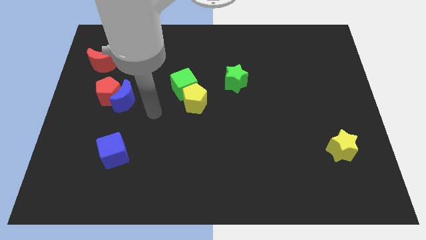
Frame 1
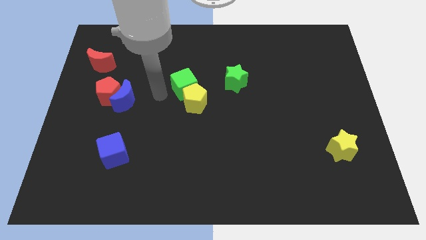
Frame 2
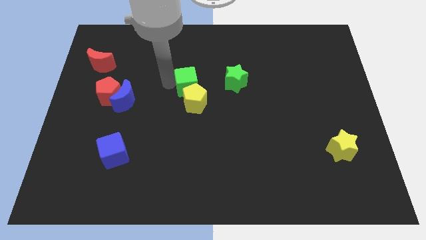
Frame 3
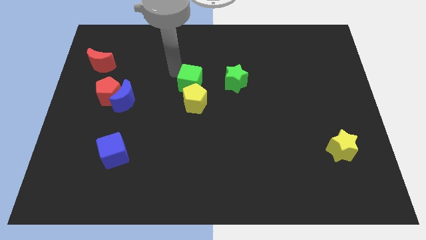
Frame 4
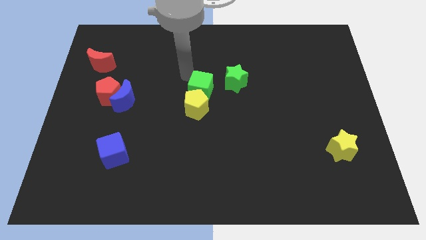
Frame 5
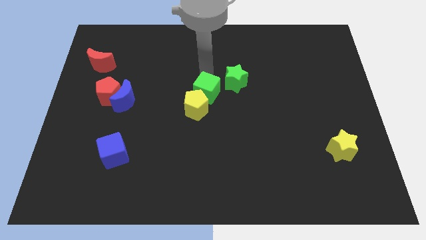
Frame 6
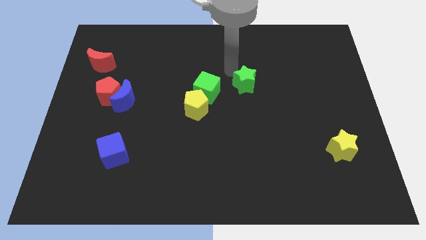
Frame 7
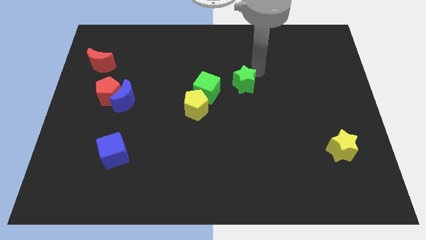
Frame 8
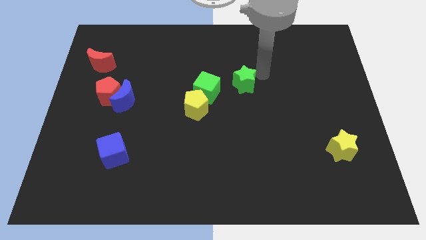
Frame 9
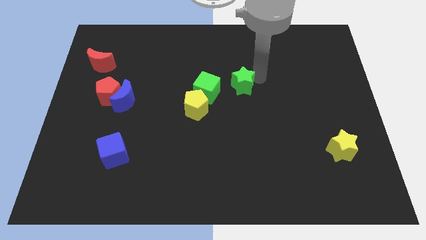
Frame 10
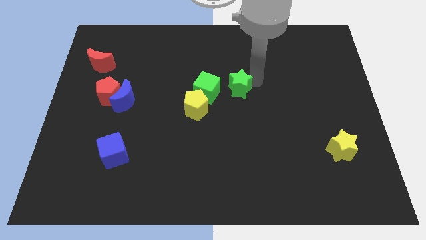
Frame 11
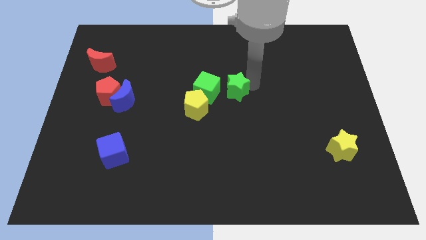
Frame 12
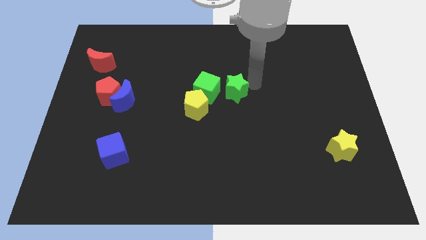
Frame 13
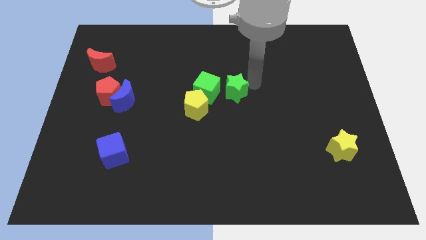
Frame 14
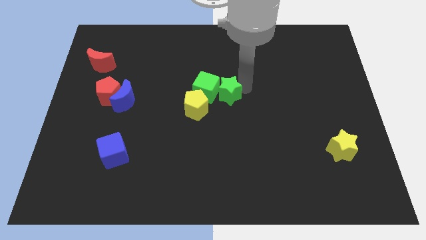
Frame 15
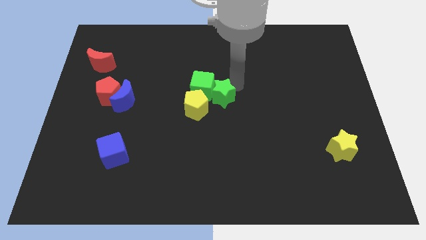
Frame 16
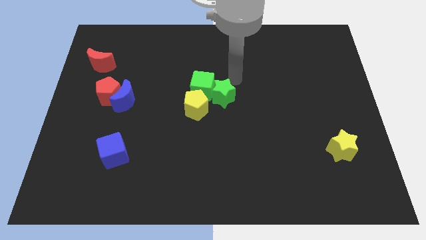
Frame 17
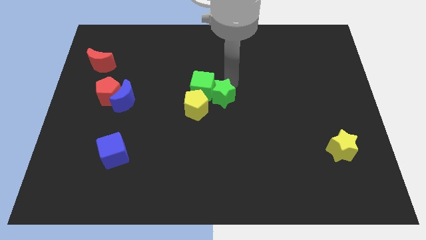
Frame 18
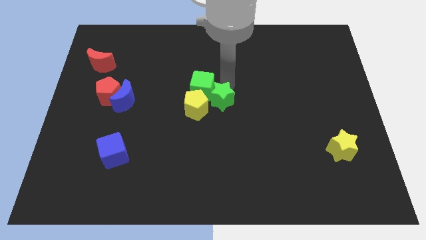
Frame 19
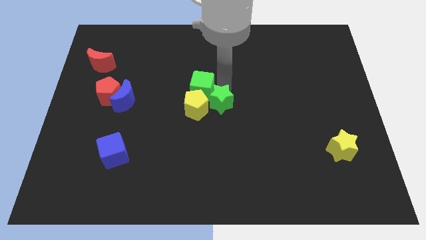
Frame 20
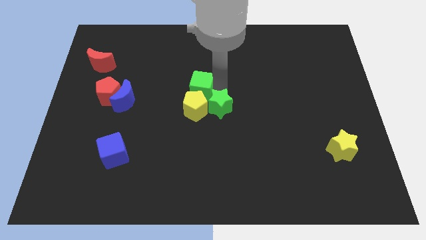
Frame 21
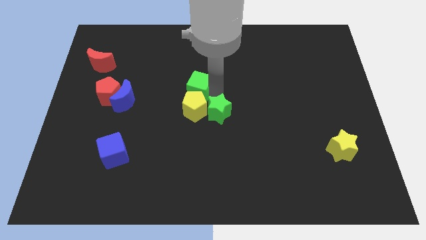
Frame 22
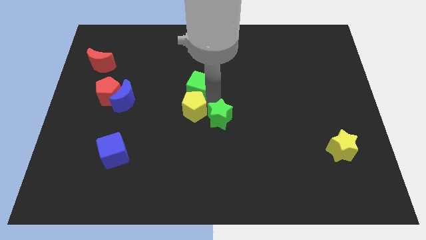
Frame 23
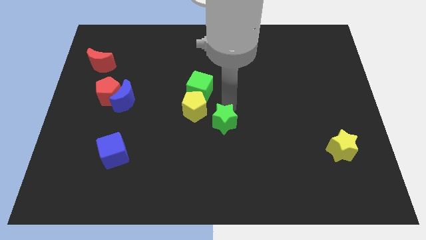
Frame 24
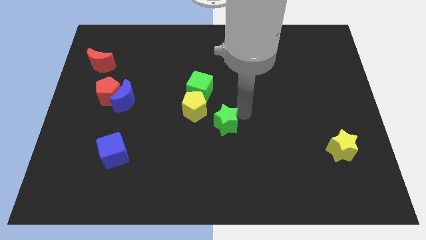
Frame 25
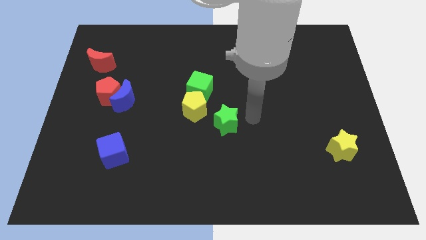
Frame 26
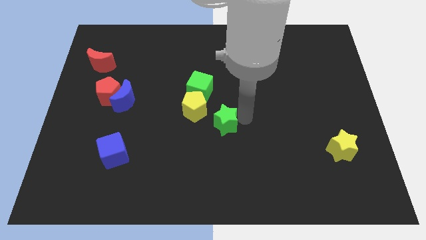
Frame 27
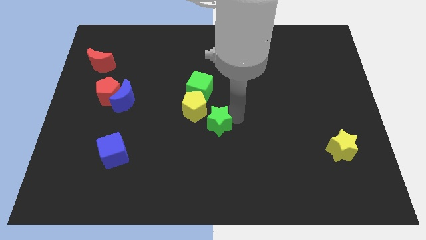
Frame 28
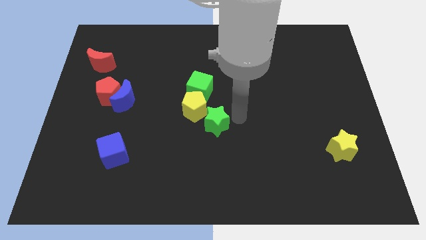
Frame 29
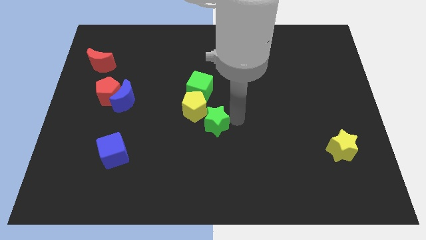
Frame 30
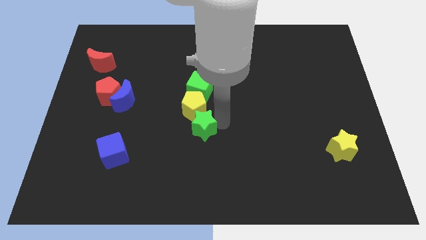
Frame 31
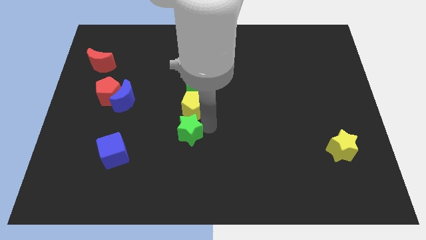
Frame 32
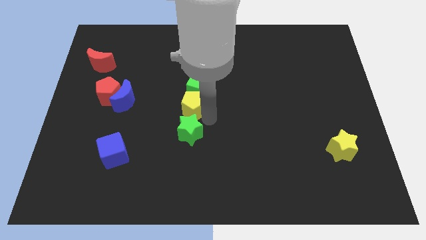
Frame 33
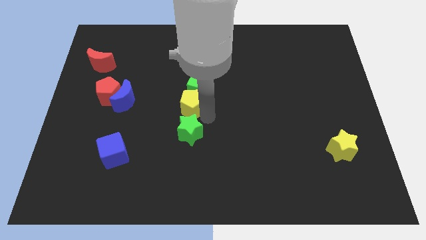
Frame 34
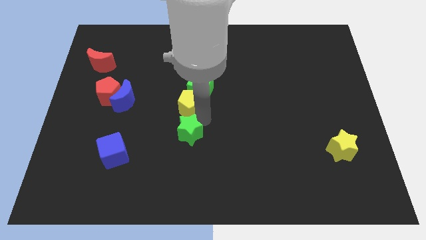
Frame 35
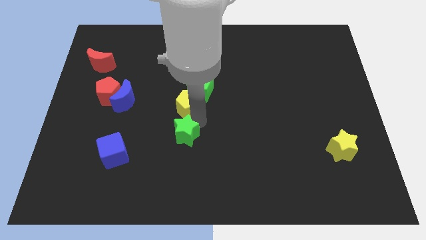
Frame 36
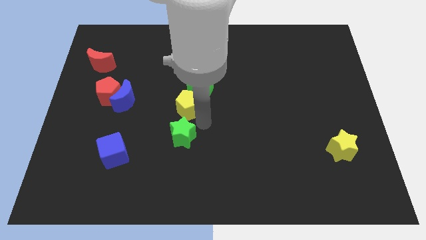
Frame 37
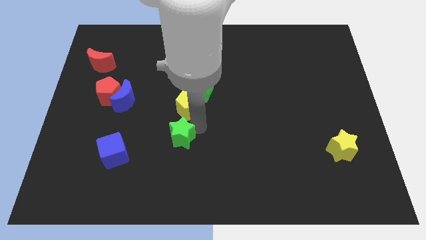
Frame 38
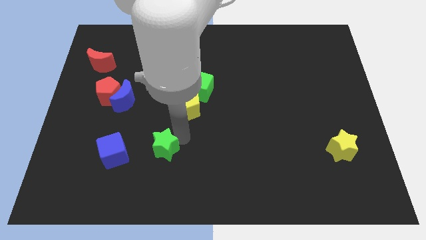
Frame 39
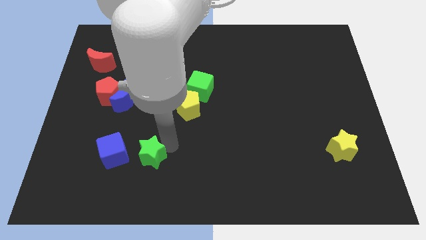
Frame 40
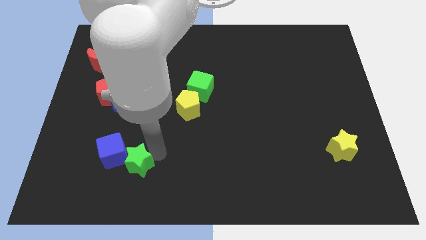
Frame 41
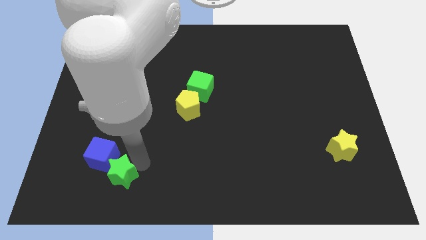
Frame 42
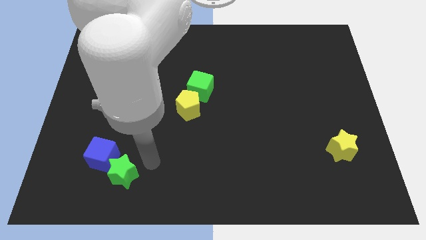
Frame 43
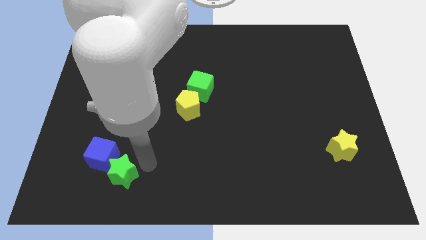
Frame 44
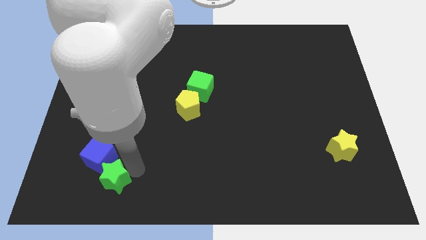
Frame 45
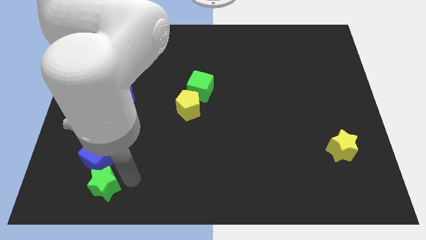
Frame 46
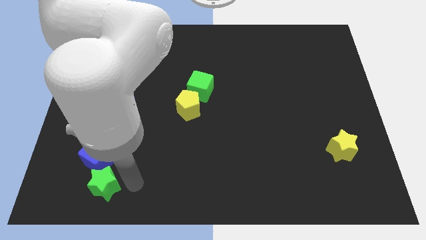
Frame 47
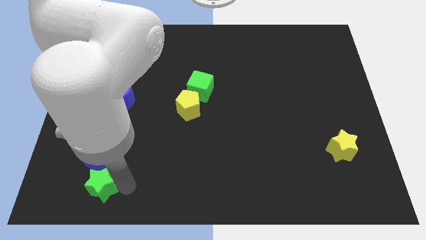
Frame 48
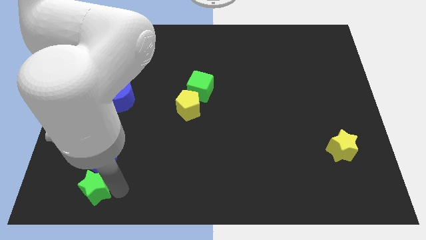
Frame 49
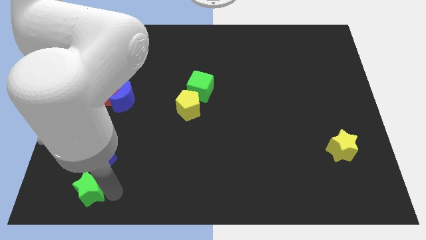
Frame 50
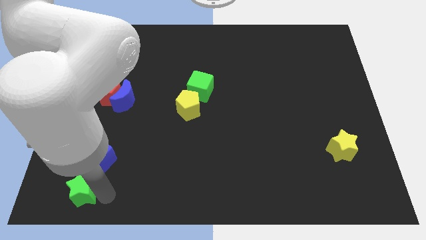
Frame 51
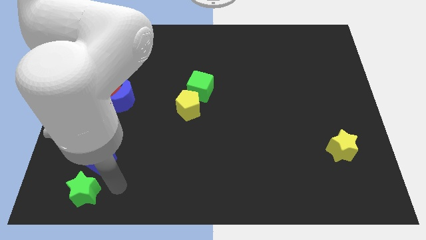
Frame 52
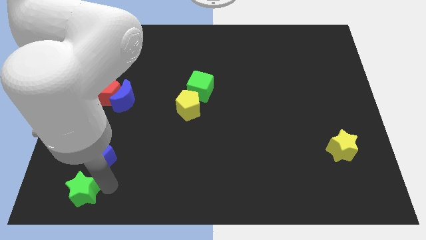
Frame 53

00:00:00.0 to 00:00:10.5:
slide the green star to the bottom left corner

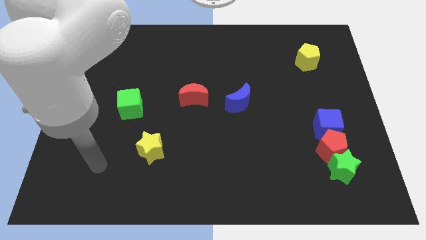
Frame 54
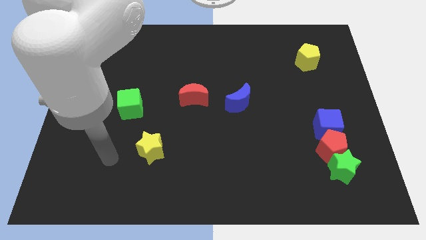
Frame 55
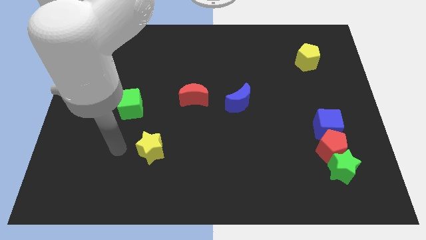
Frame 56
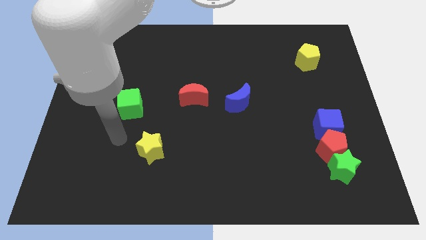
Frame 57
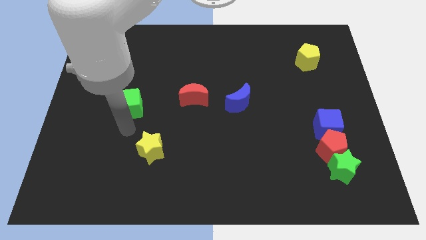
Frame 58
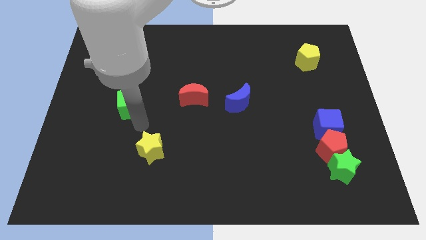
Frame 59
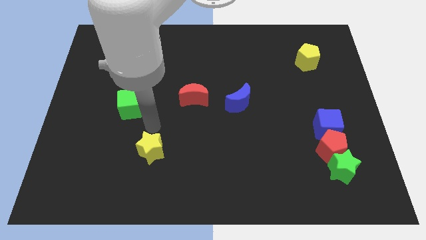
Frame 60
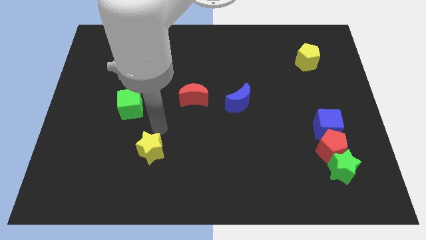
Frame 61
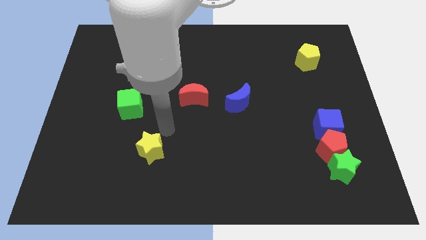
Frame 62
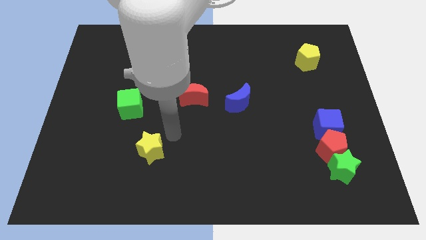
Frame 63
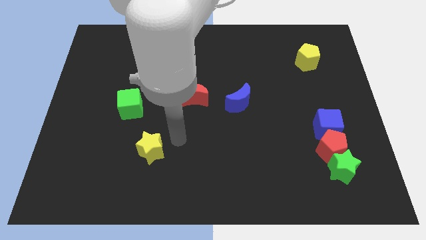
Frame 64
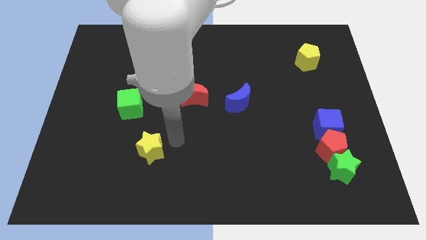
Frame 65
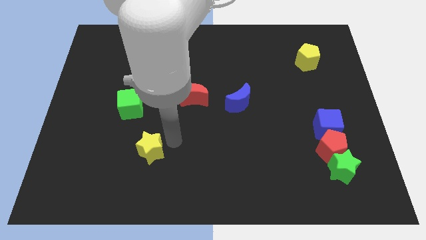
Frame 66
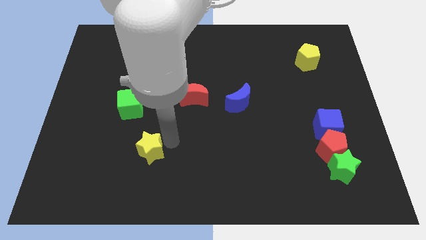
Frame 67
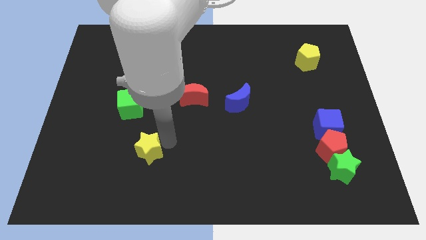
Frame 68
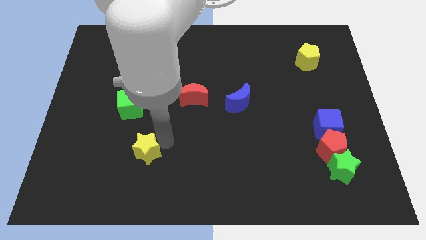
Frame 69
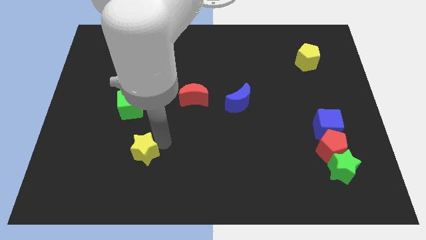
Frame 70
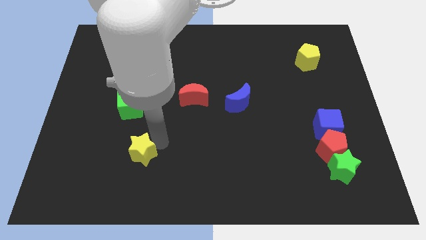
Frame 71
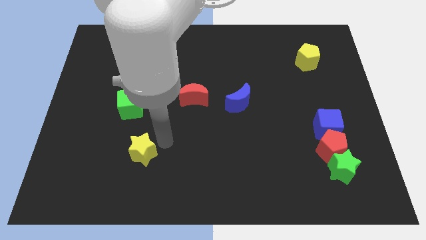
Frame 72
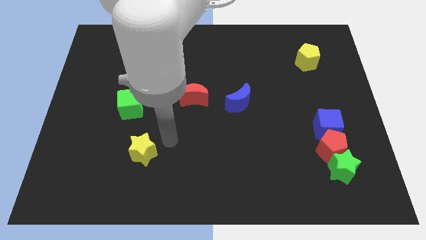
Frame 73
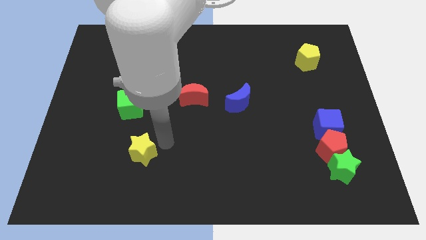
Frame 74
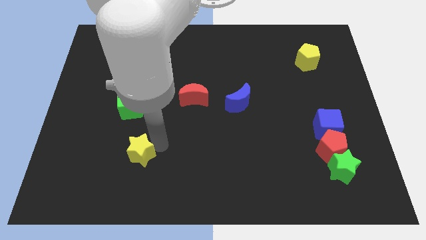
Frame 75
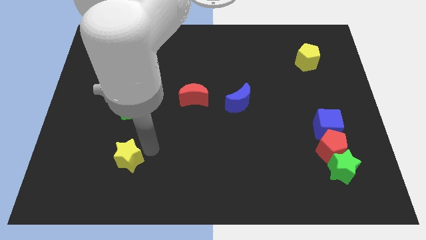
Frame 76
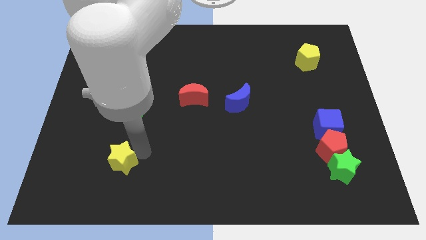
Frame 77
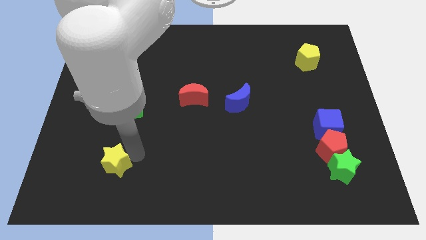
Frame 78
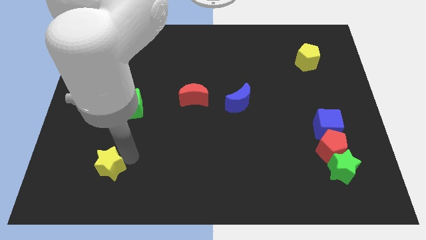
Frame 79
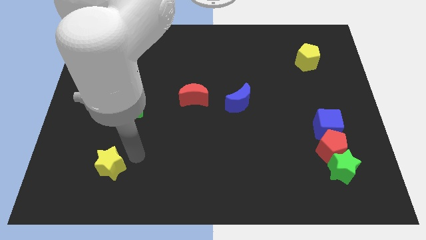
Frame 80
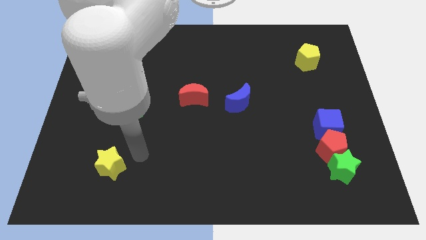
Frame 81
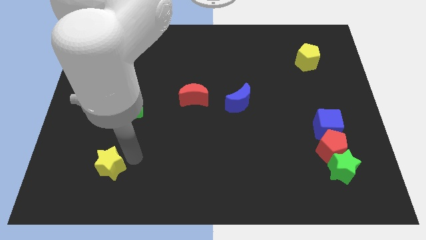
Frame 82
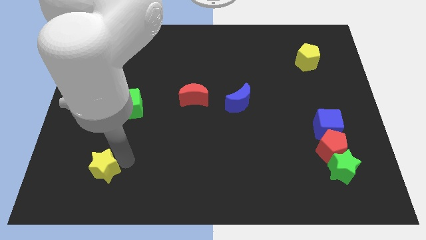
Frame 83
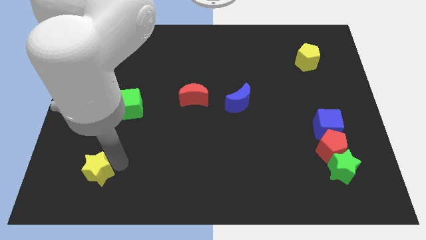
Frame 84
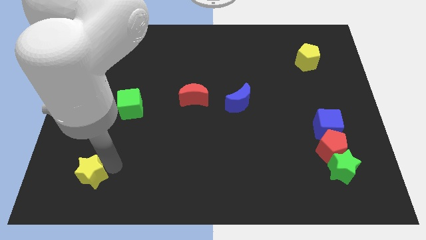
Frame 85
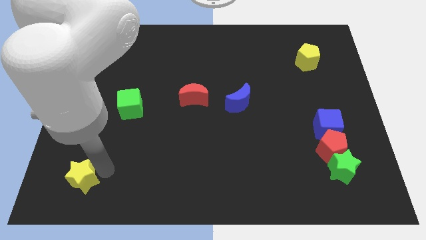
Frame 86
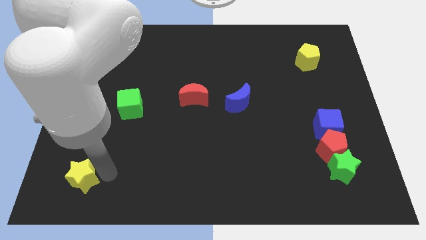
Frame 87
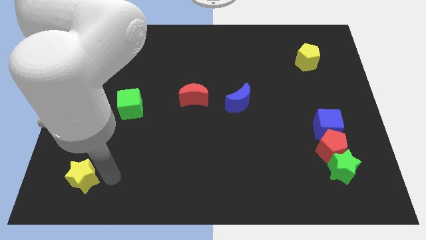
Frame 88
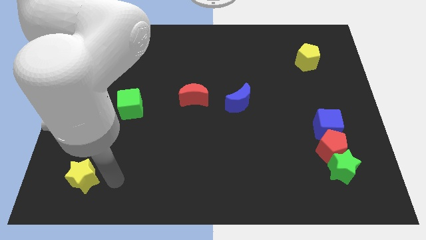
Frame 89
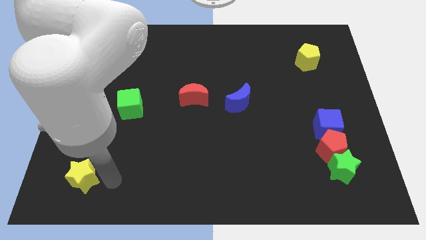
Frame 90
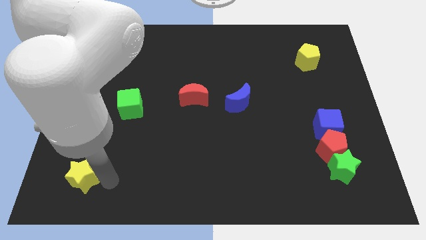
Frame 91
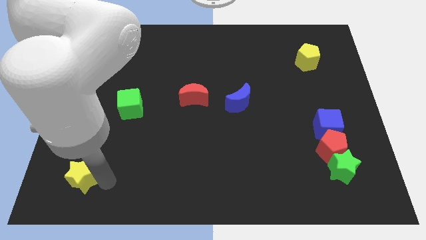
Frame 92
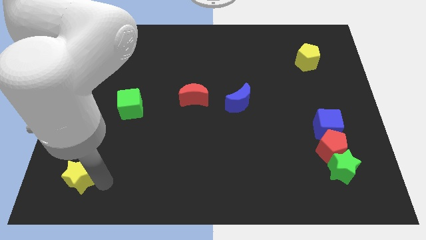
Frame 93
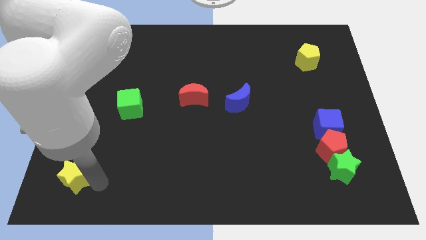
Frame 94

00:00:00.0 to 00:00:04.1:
move the yellow star to the bottom left of the board
